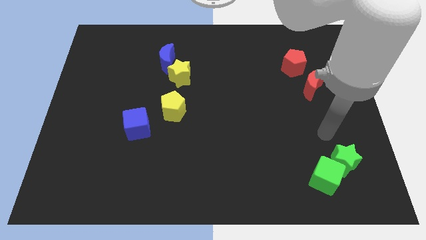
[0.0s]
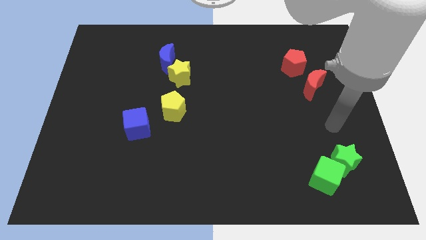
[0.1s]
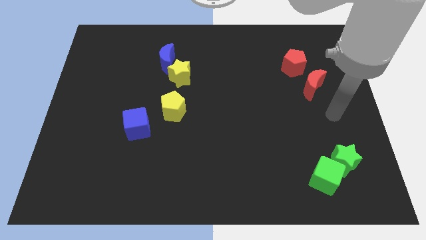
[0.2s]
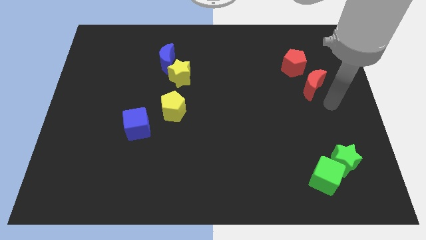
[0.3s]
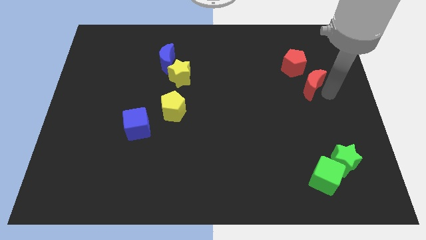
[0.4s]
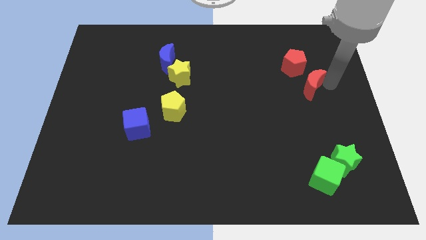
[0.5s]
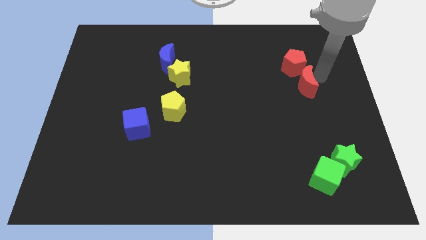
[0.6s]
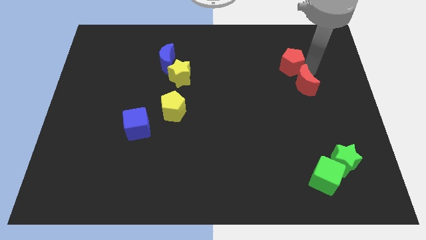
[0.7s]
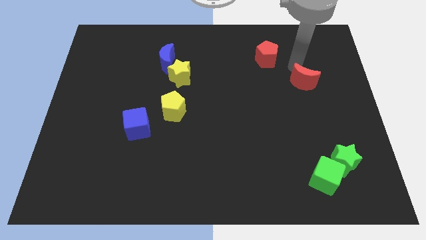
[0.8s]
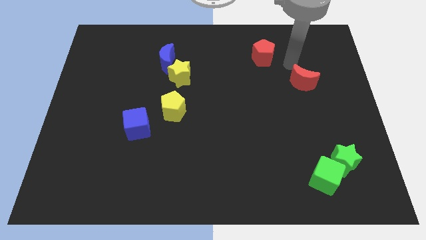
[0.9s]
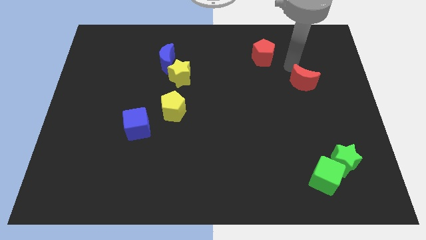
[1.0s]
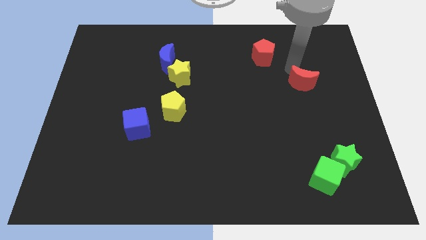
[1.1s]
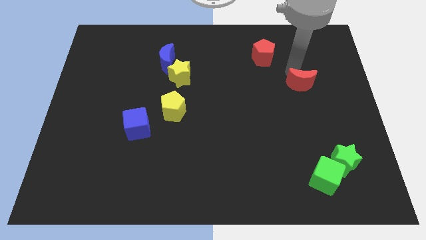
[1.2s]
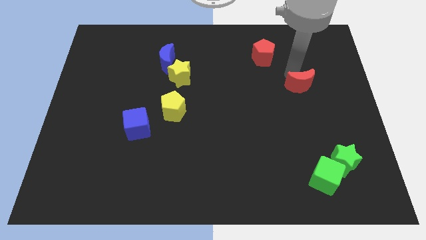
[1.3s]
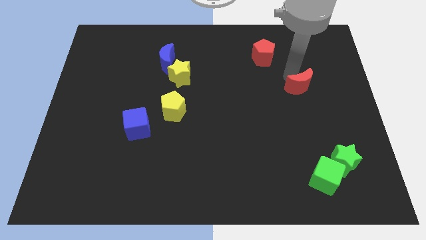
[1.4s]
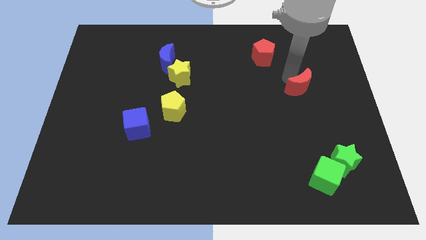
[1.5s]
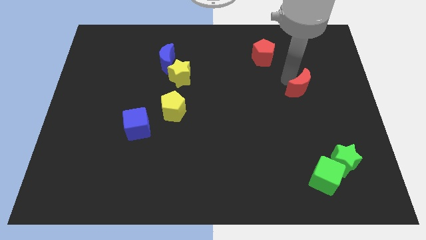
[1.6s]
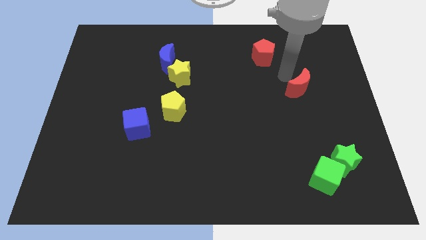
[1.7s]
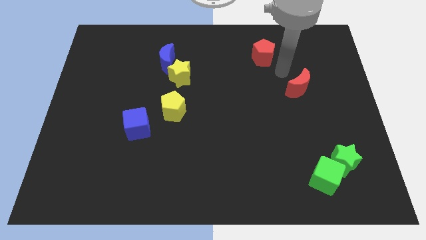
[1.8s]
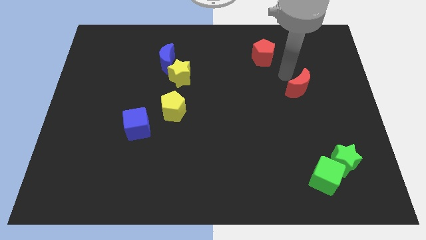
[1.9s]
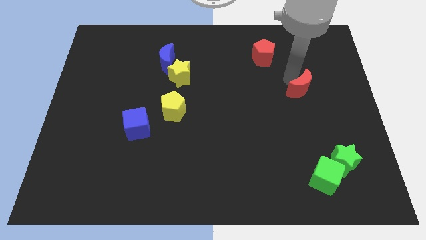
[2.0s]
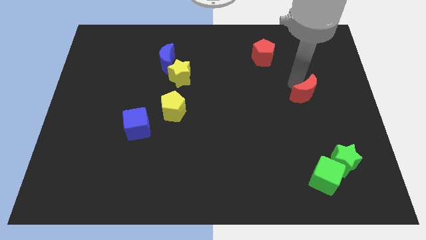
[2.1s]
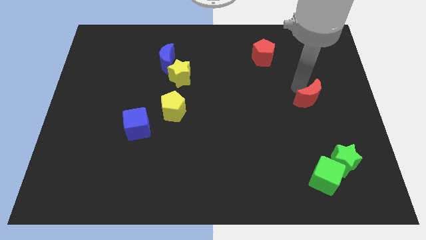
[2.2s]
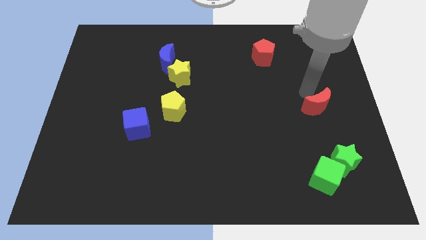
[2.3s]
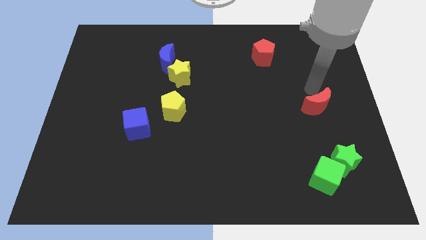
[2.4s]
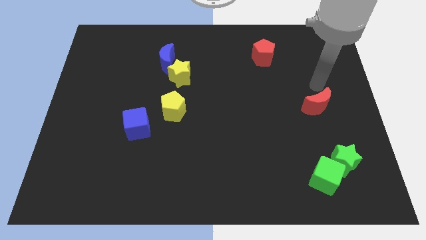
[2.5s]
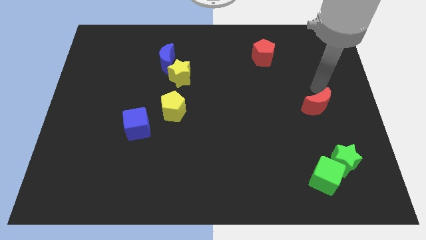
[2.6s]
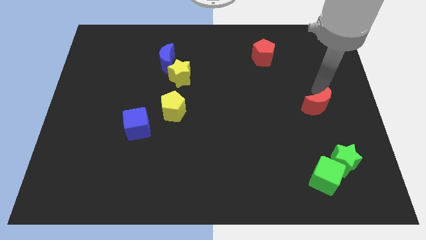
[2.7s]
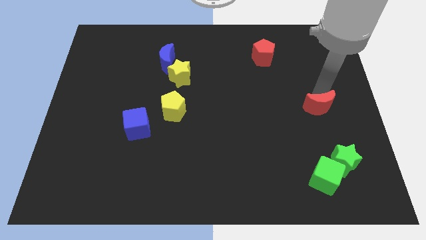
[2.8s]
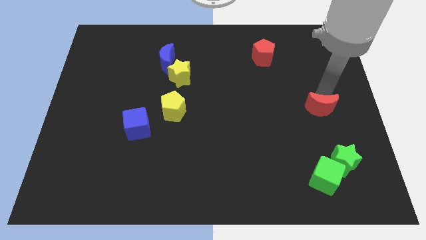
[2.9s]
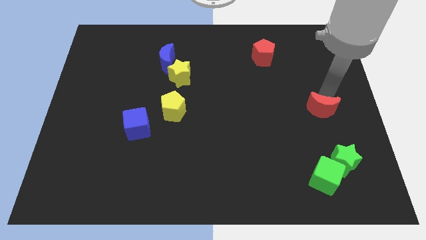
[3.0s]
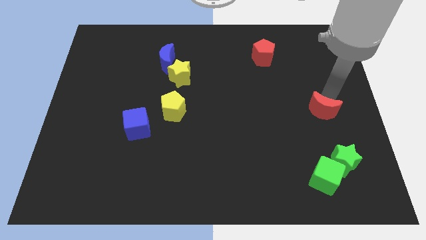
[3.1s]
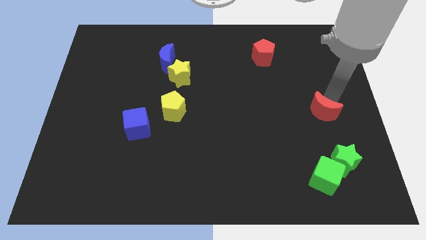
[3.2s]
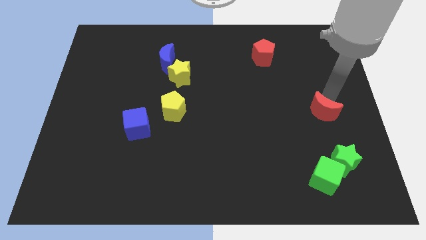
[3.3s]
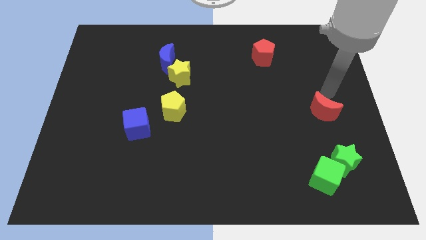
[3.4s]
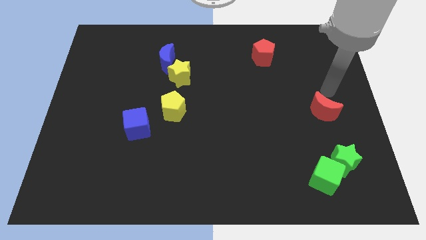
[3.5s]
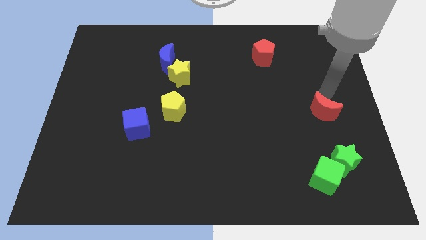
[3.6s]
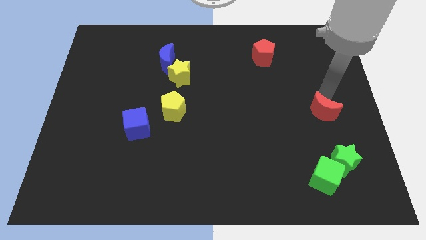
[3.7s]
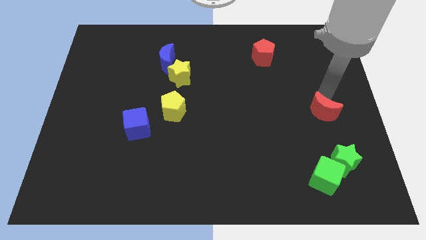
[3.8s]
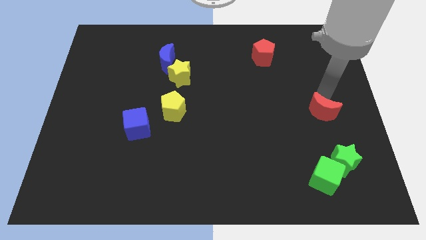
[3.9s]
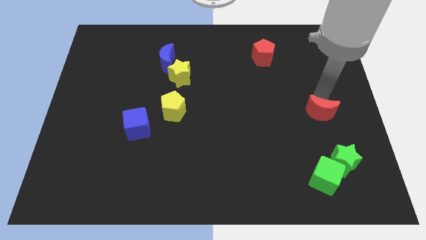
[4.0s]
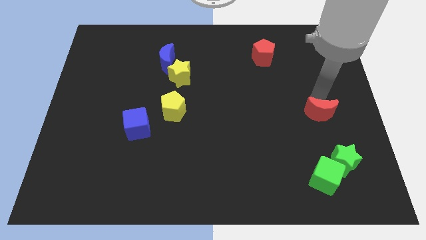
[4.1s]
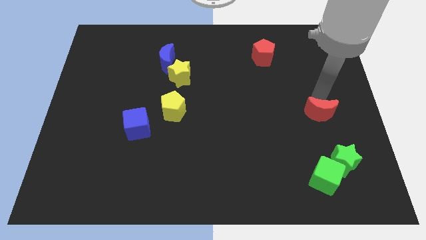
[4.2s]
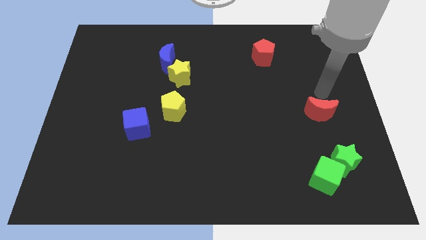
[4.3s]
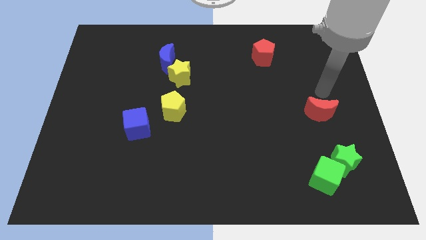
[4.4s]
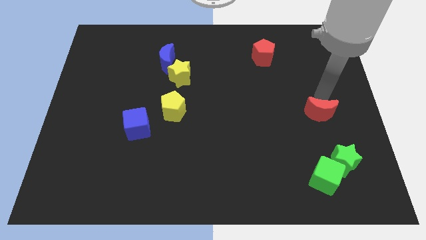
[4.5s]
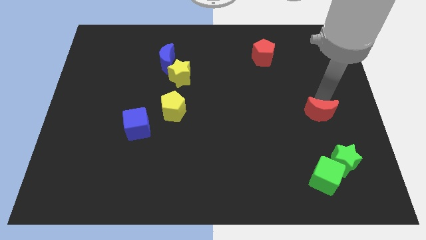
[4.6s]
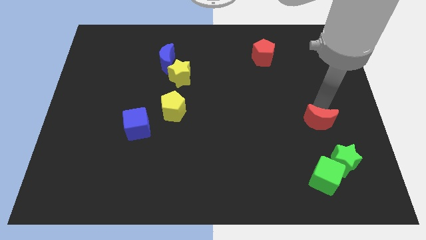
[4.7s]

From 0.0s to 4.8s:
slide the red moon to the top of the green cube

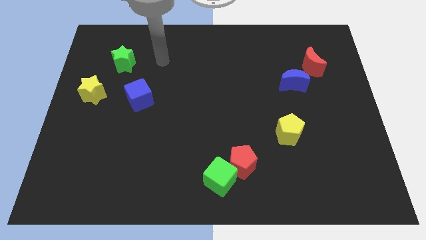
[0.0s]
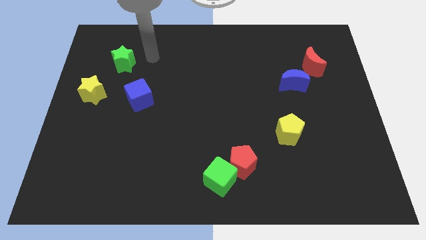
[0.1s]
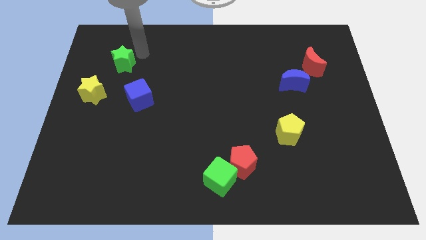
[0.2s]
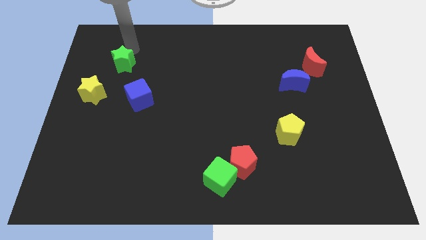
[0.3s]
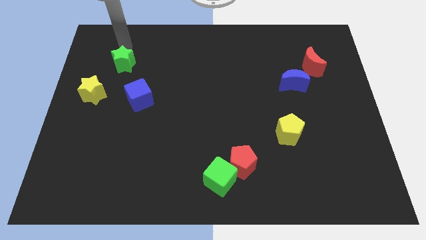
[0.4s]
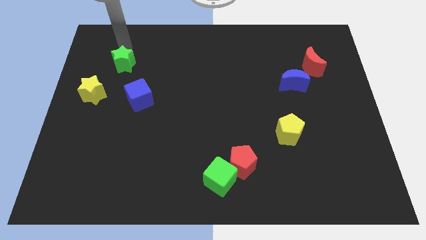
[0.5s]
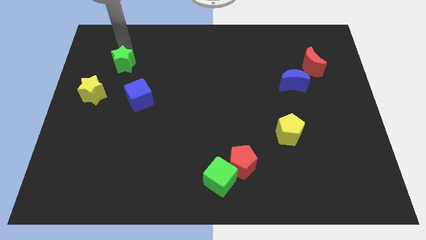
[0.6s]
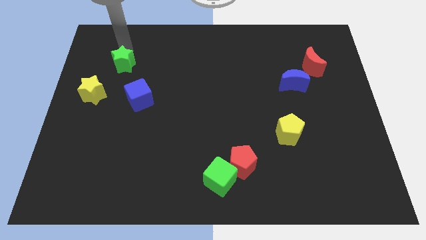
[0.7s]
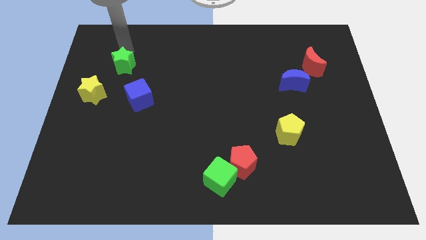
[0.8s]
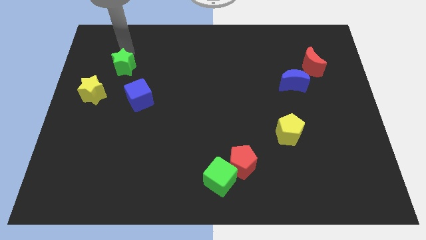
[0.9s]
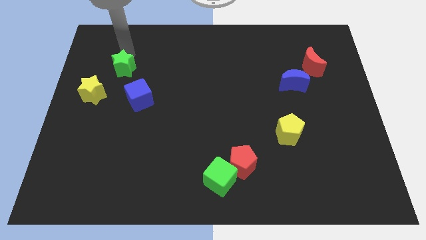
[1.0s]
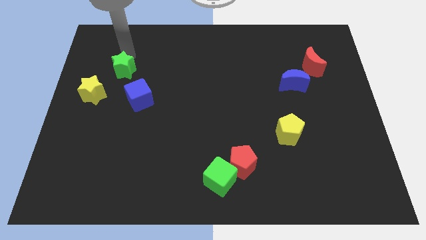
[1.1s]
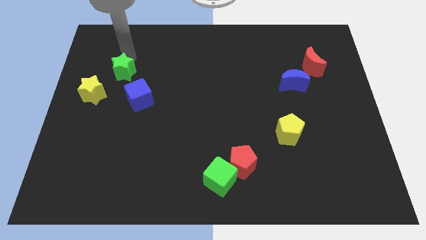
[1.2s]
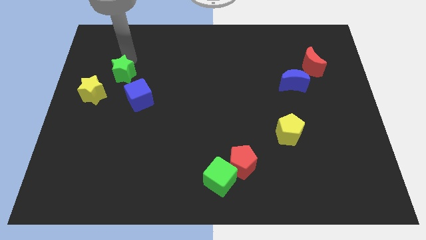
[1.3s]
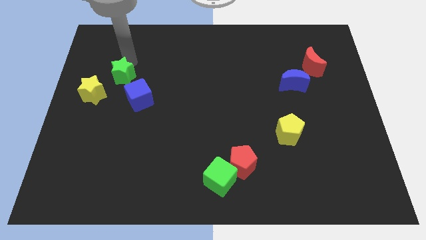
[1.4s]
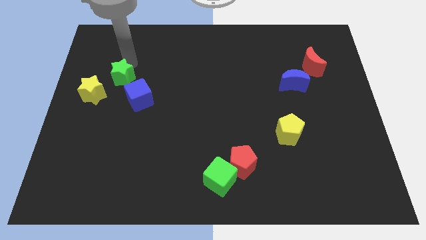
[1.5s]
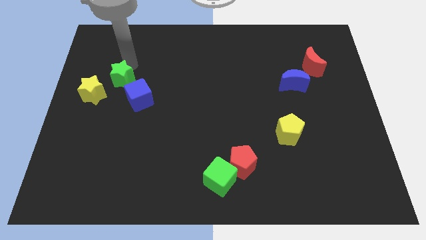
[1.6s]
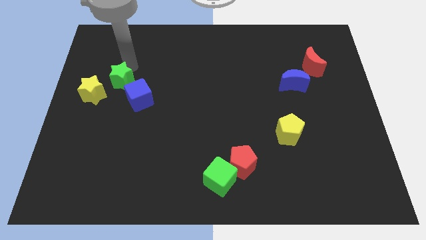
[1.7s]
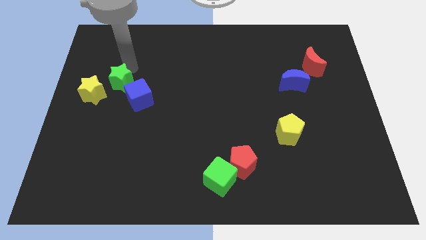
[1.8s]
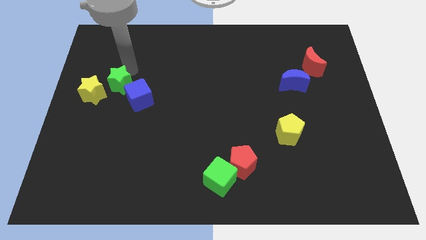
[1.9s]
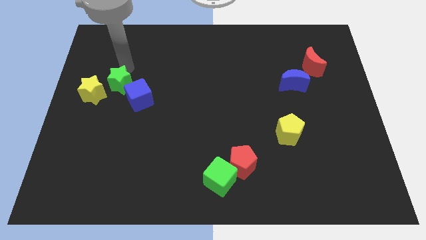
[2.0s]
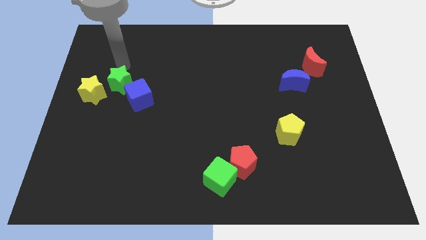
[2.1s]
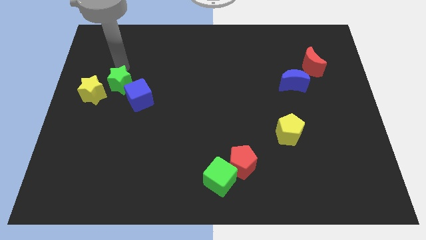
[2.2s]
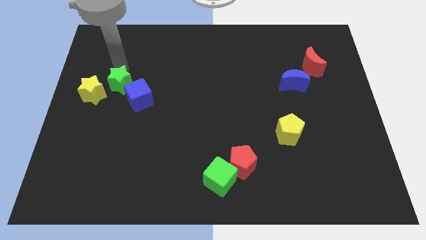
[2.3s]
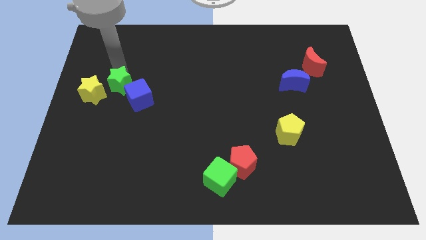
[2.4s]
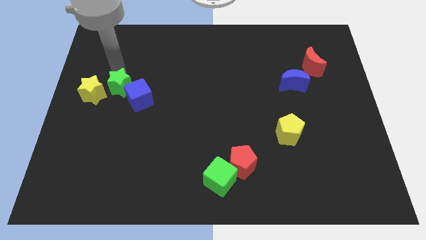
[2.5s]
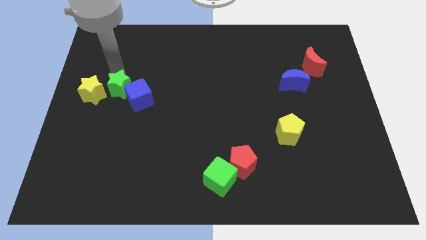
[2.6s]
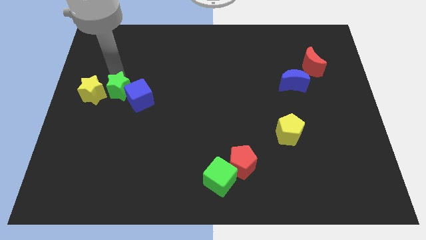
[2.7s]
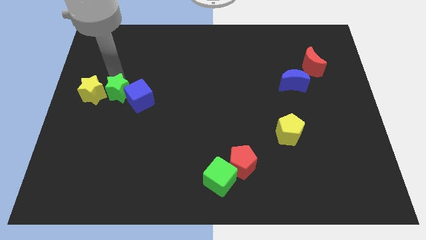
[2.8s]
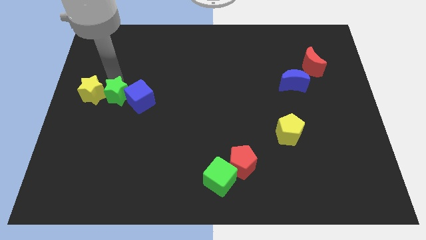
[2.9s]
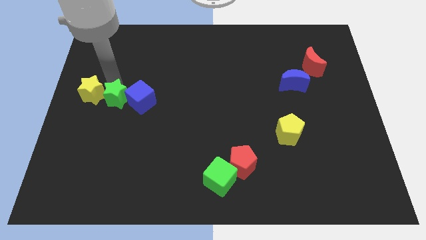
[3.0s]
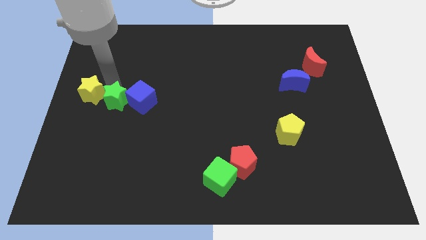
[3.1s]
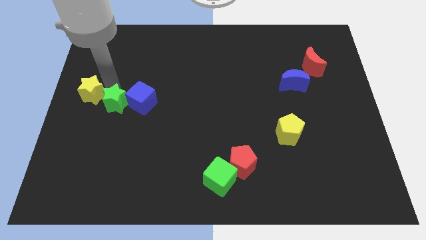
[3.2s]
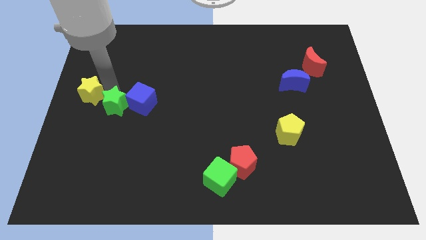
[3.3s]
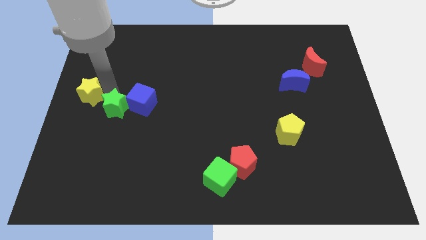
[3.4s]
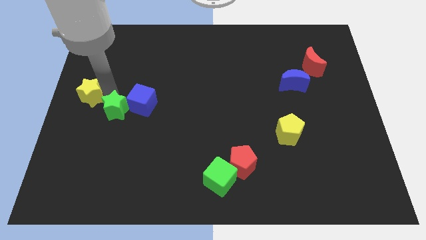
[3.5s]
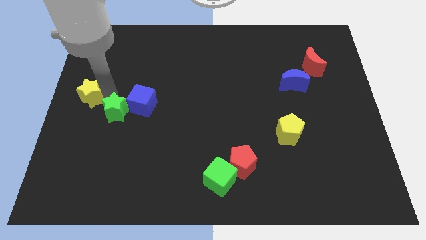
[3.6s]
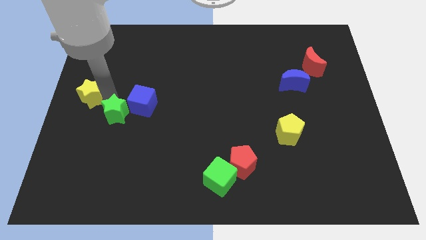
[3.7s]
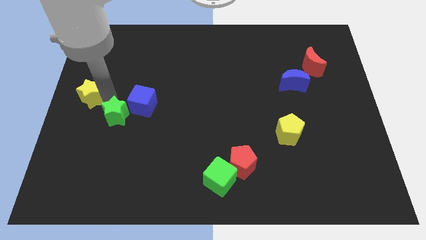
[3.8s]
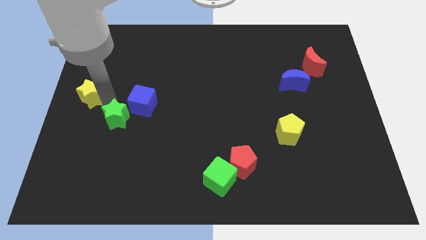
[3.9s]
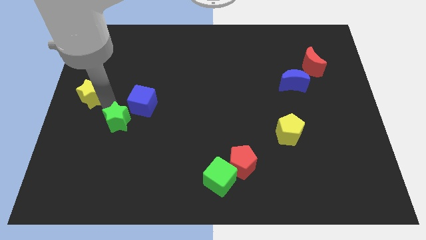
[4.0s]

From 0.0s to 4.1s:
push the green star to the bottom of the blue cube
